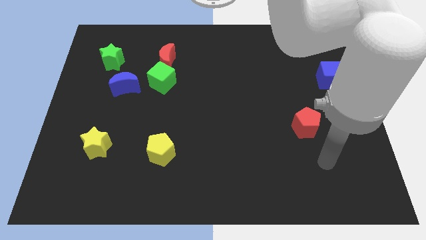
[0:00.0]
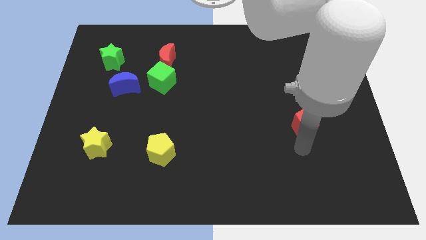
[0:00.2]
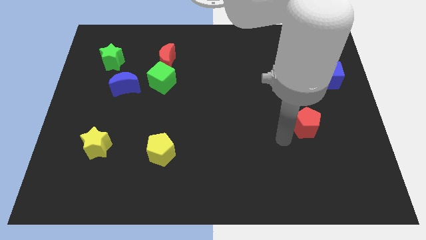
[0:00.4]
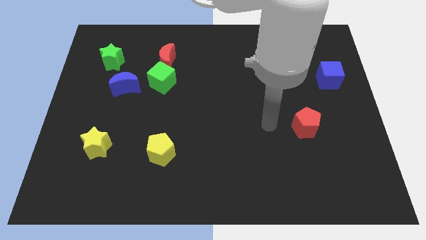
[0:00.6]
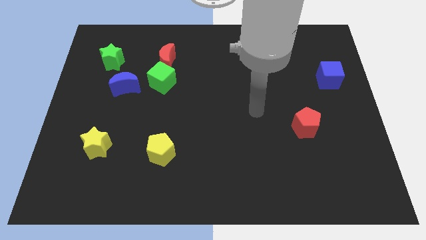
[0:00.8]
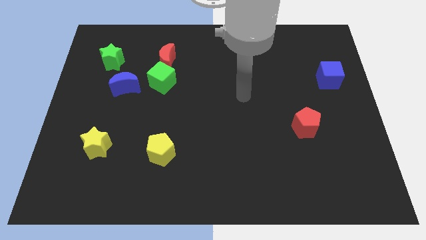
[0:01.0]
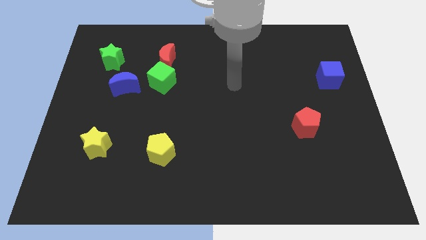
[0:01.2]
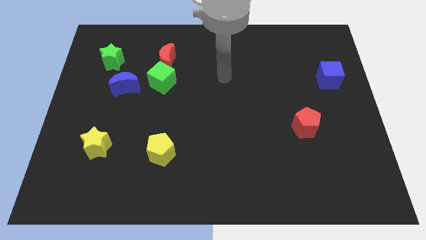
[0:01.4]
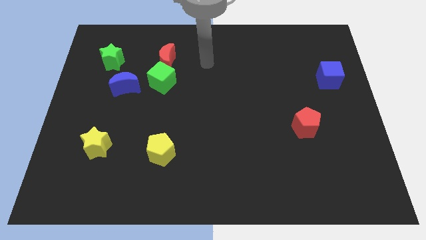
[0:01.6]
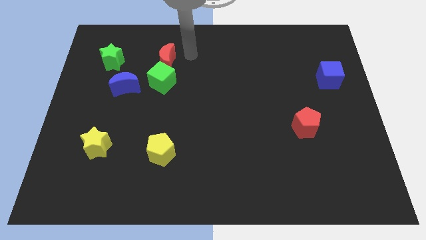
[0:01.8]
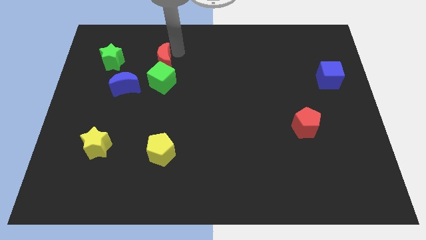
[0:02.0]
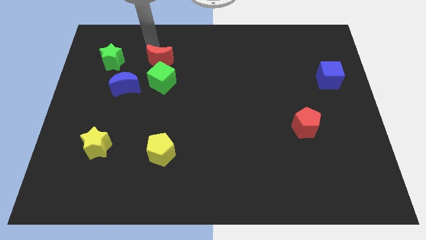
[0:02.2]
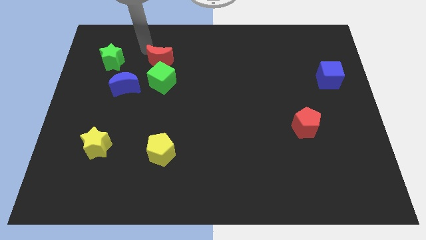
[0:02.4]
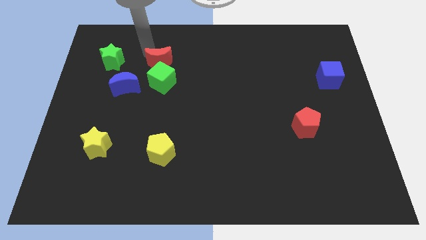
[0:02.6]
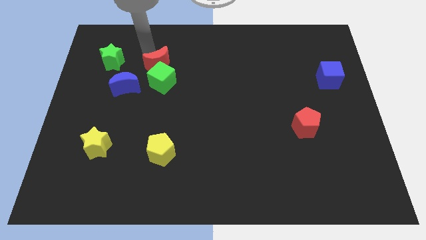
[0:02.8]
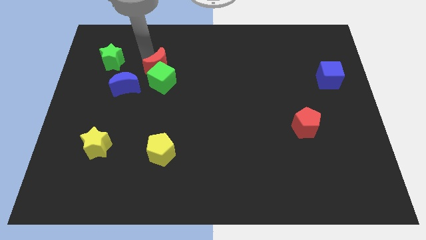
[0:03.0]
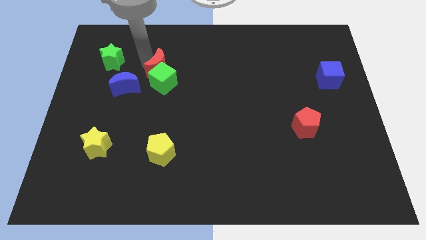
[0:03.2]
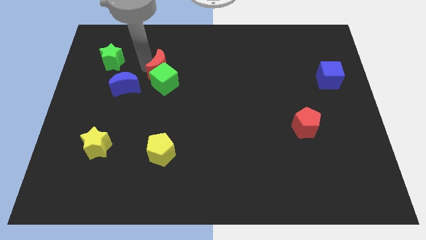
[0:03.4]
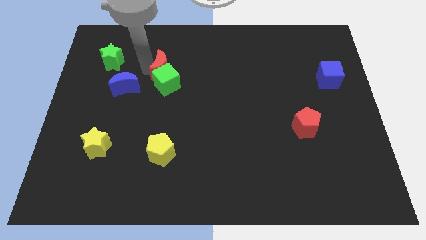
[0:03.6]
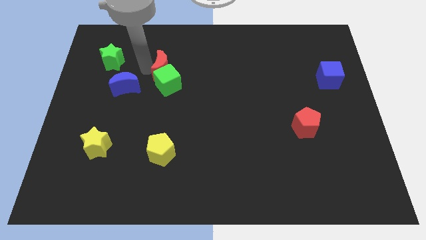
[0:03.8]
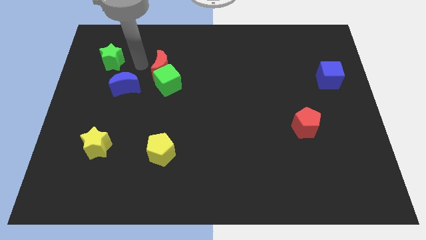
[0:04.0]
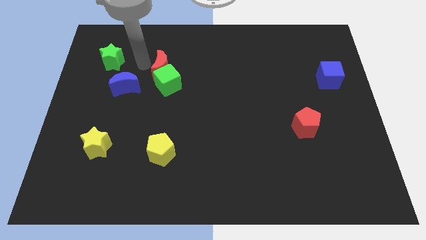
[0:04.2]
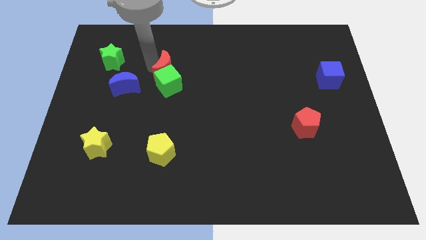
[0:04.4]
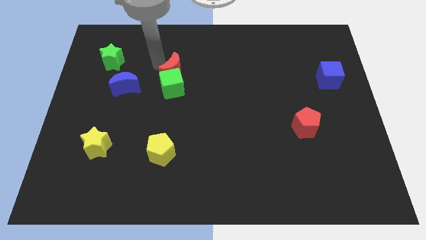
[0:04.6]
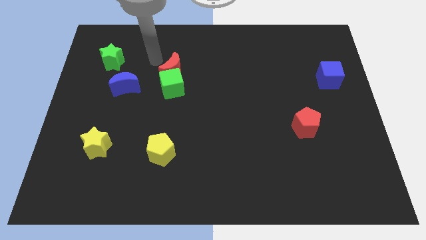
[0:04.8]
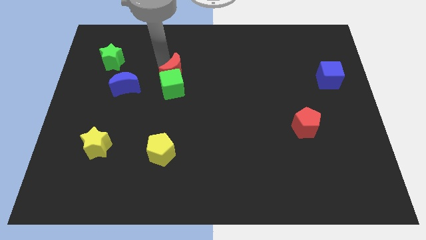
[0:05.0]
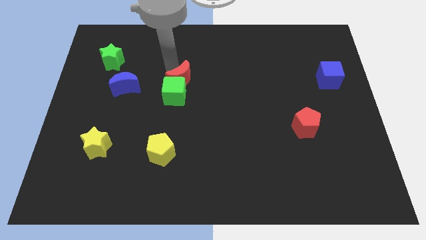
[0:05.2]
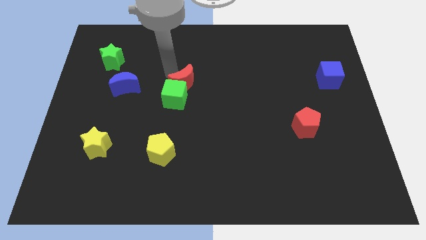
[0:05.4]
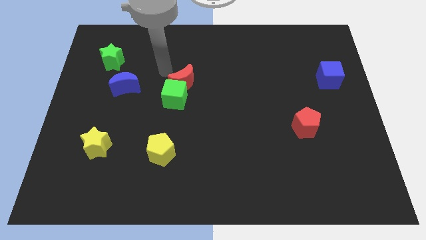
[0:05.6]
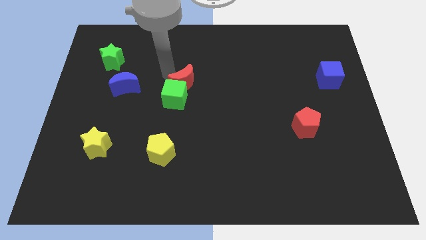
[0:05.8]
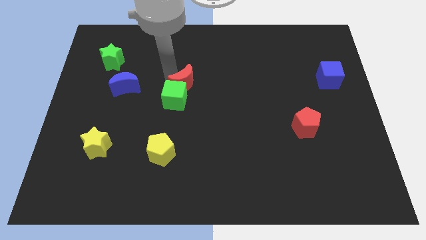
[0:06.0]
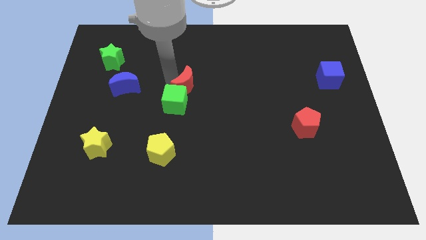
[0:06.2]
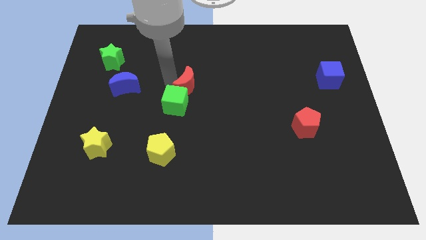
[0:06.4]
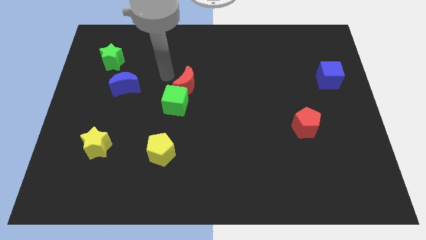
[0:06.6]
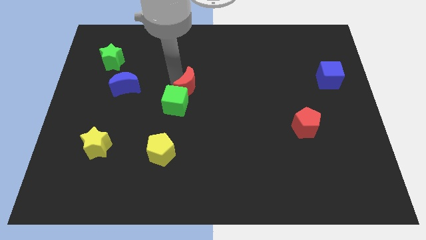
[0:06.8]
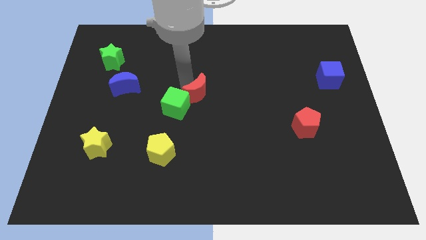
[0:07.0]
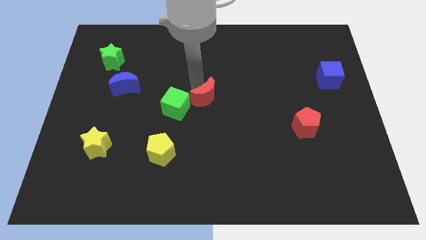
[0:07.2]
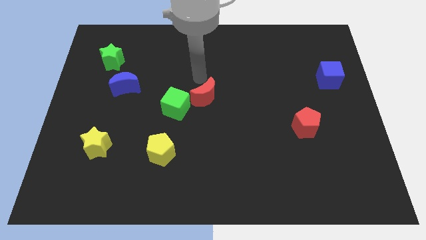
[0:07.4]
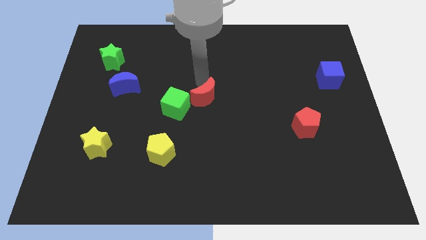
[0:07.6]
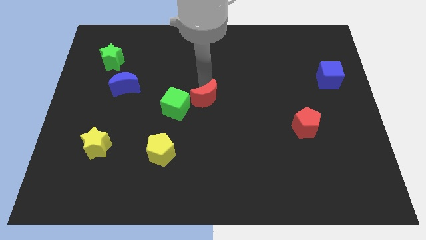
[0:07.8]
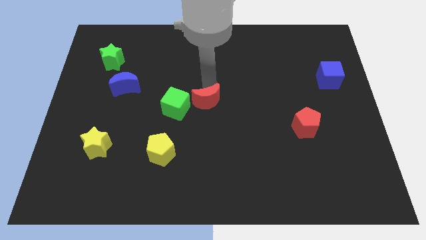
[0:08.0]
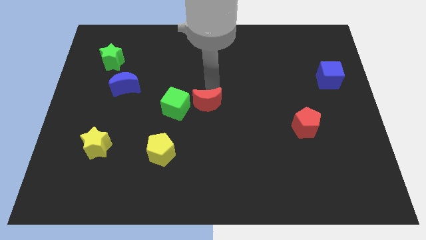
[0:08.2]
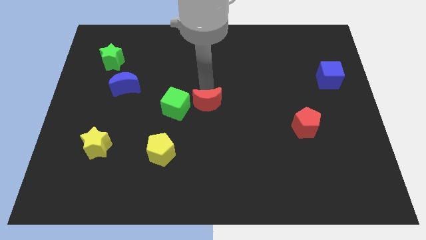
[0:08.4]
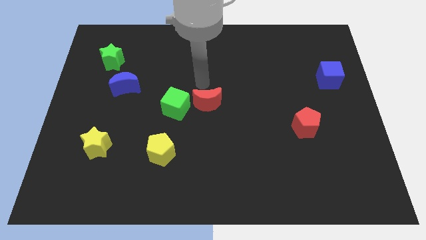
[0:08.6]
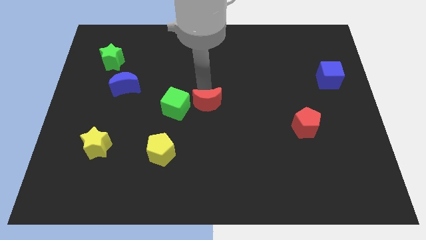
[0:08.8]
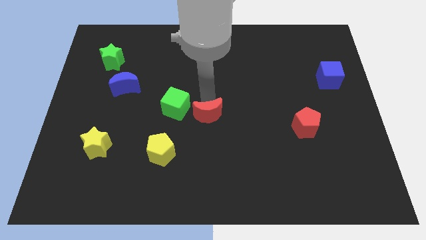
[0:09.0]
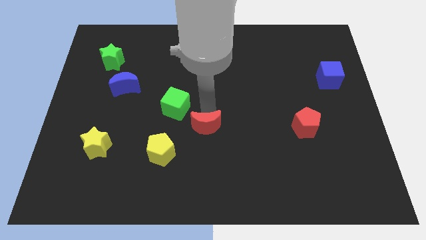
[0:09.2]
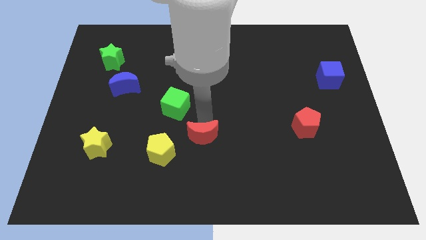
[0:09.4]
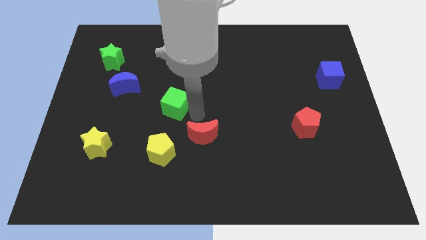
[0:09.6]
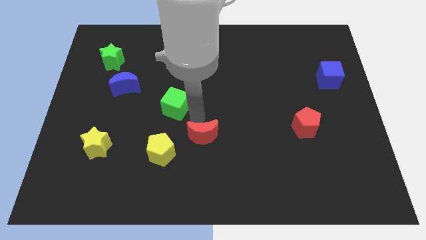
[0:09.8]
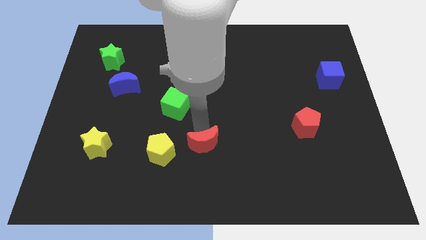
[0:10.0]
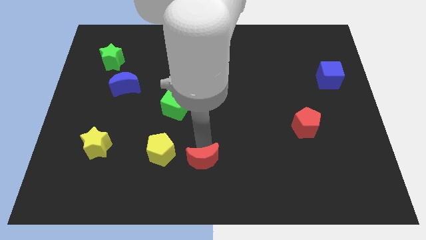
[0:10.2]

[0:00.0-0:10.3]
push the red moon to the bottom
